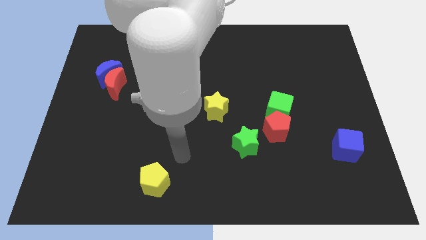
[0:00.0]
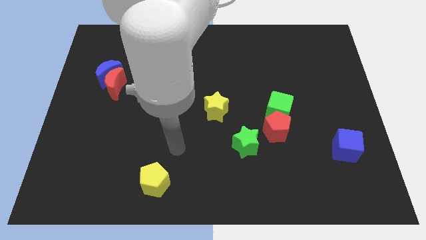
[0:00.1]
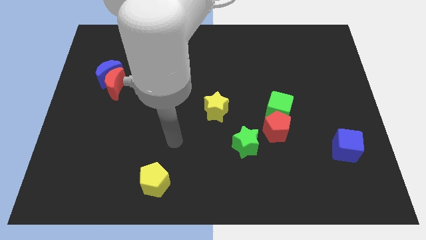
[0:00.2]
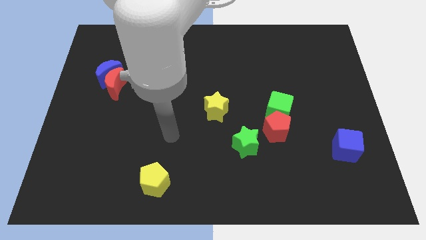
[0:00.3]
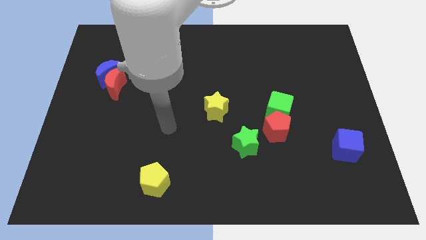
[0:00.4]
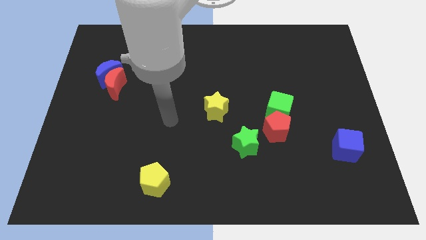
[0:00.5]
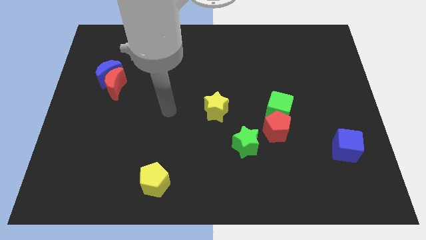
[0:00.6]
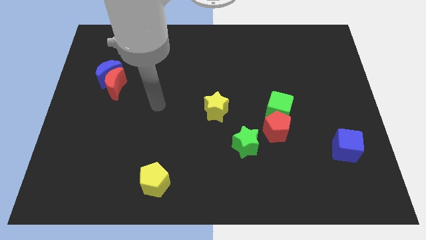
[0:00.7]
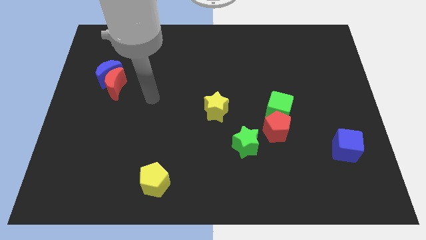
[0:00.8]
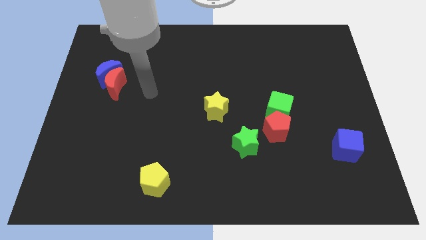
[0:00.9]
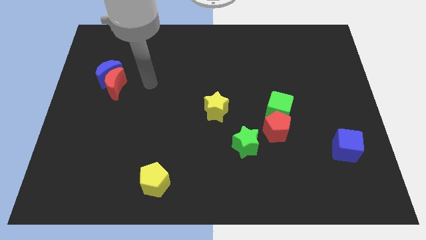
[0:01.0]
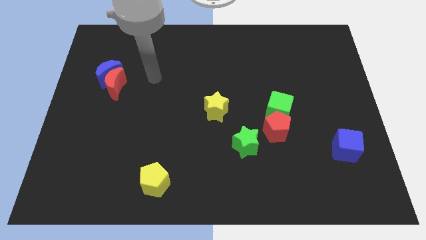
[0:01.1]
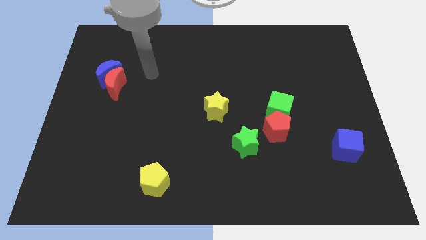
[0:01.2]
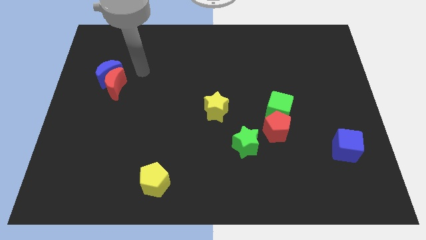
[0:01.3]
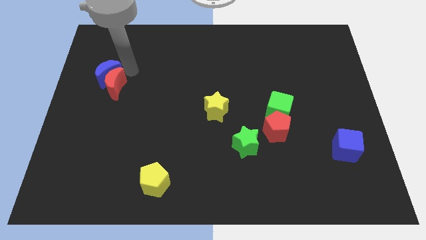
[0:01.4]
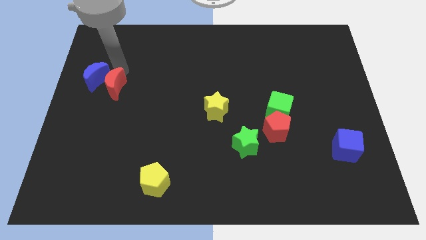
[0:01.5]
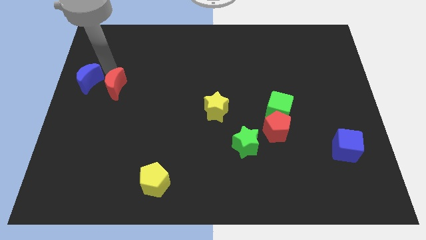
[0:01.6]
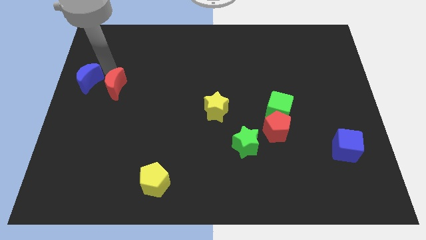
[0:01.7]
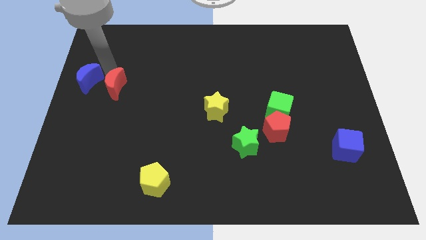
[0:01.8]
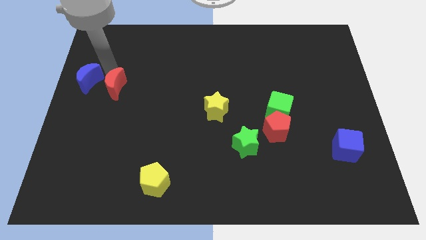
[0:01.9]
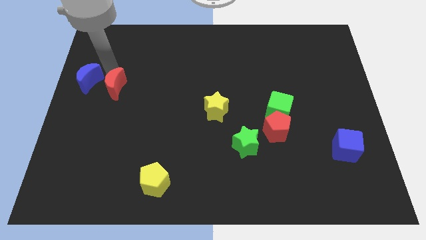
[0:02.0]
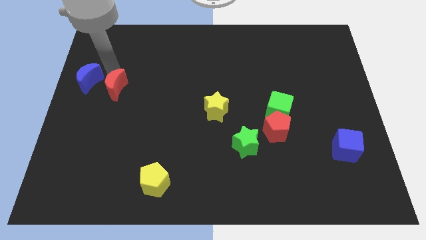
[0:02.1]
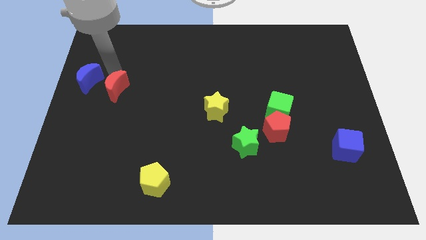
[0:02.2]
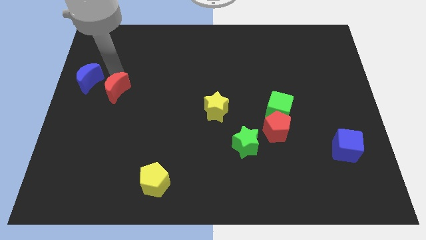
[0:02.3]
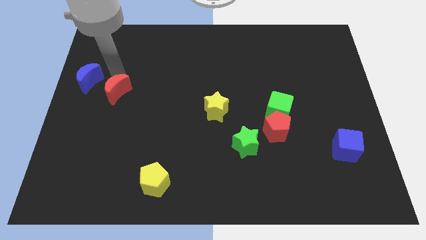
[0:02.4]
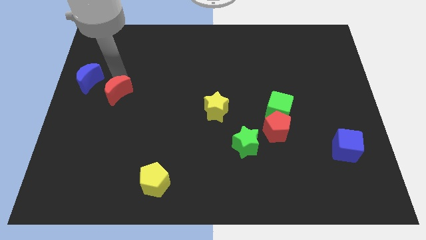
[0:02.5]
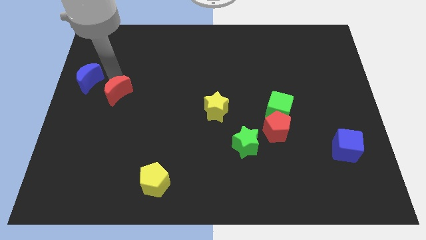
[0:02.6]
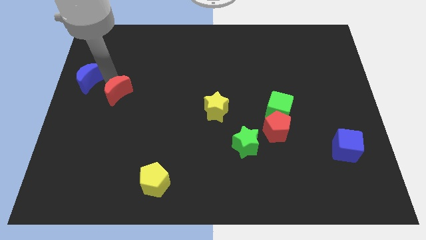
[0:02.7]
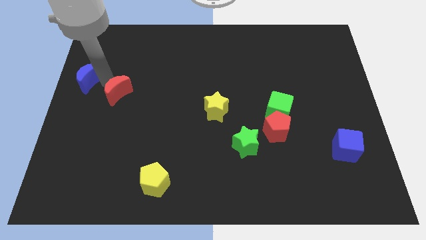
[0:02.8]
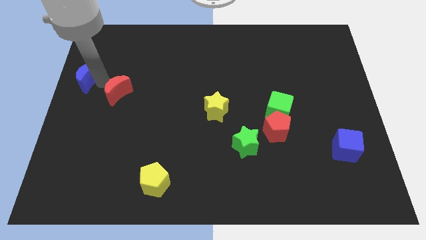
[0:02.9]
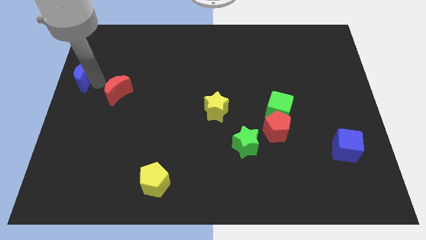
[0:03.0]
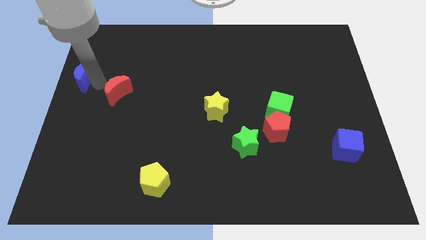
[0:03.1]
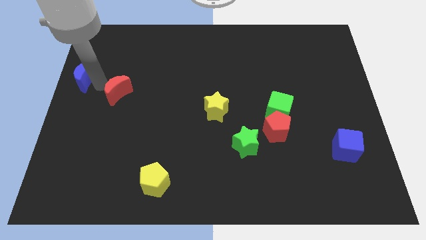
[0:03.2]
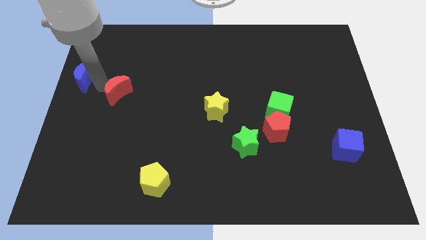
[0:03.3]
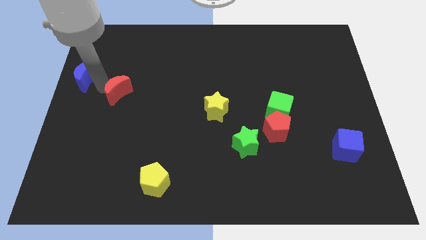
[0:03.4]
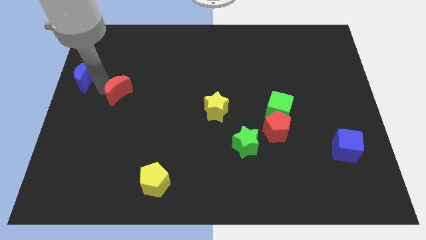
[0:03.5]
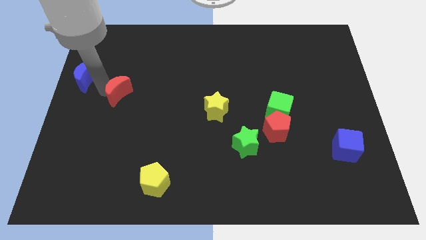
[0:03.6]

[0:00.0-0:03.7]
separate the red moon from the blue moon

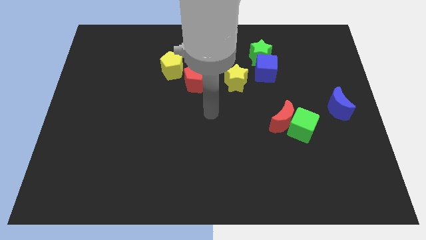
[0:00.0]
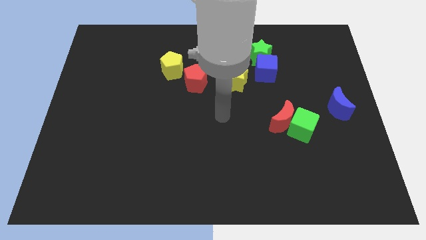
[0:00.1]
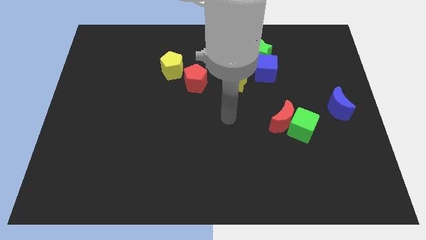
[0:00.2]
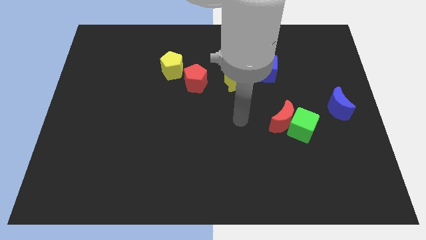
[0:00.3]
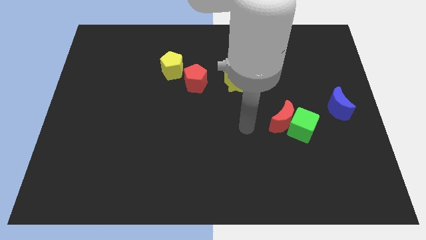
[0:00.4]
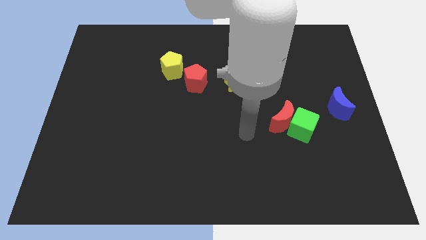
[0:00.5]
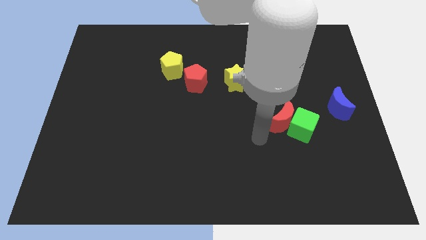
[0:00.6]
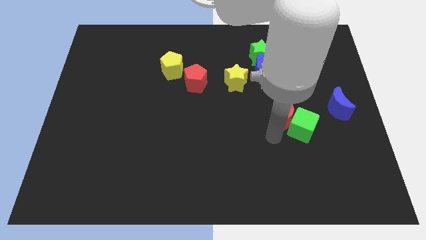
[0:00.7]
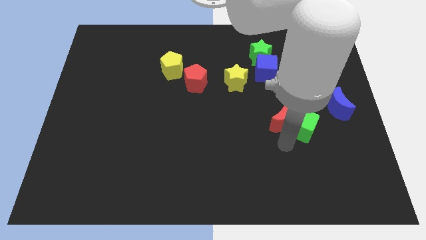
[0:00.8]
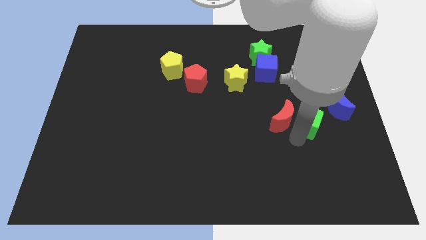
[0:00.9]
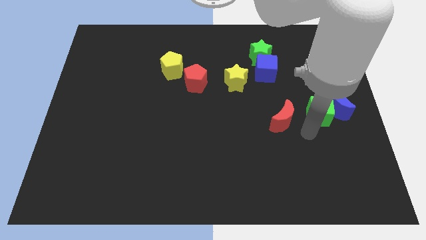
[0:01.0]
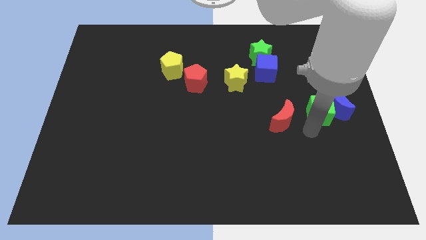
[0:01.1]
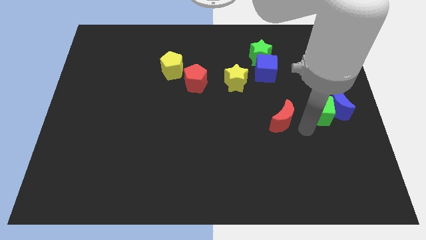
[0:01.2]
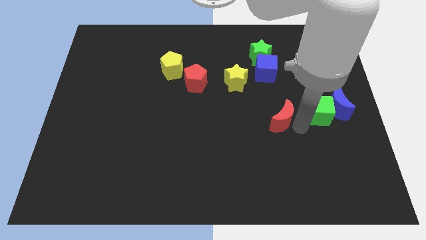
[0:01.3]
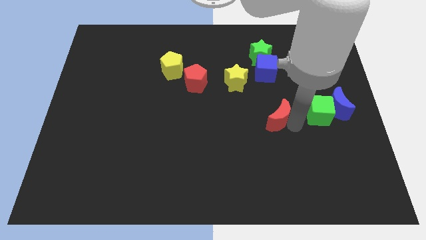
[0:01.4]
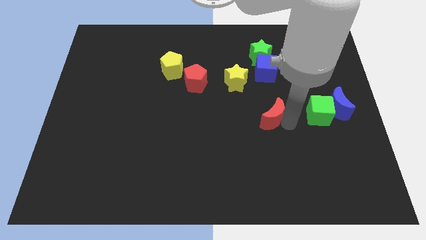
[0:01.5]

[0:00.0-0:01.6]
pull the red moon apart from the green cube

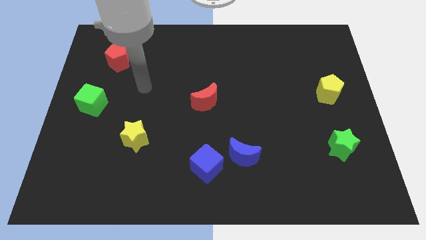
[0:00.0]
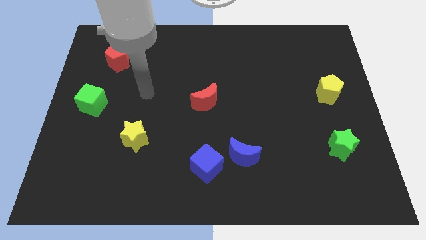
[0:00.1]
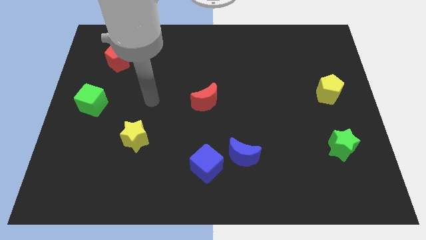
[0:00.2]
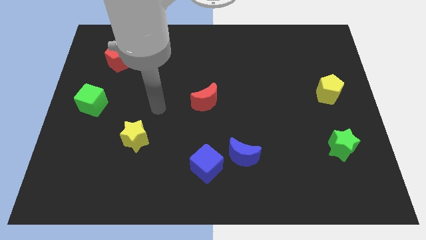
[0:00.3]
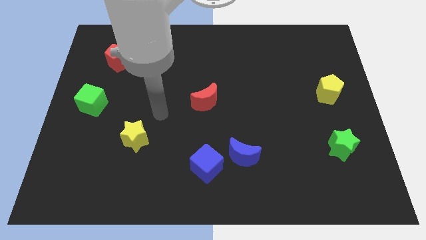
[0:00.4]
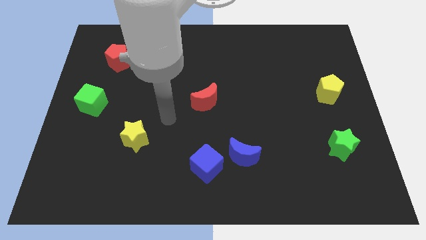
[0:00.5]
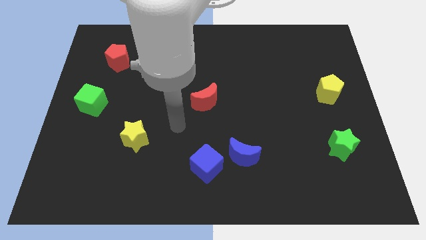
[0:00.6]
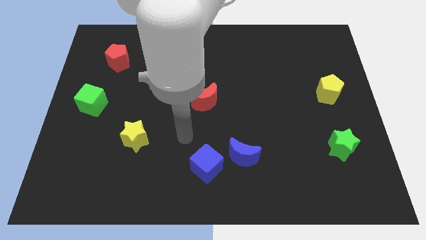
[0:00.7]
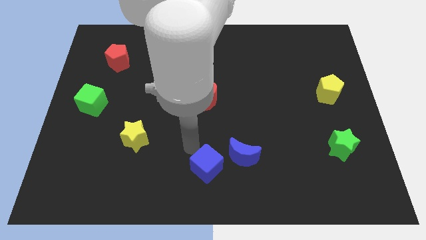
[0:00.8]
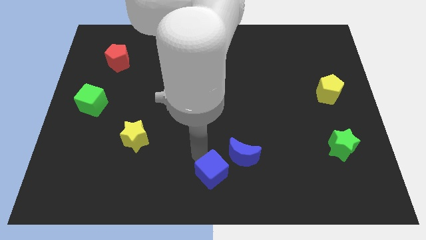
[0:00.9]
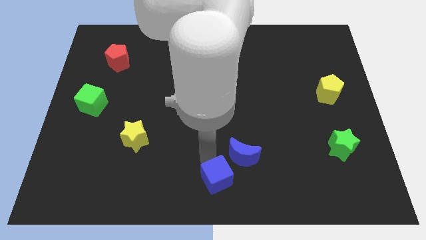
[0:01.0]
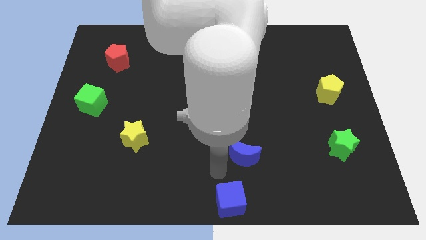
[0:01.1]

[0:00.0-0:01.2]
move the blue moon away from the blue cube

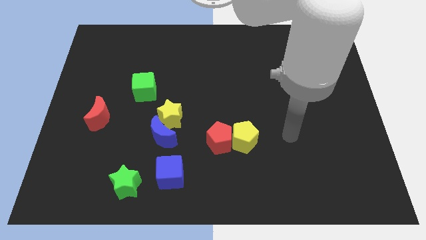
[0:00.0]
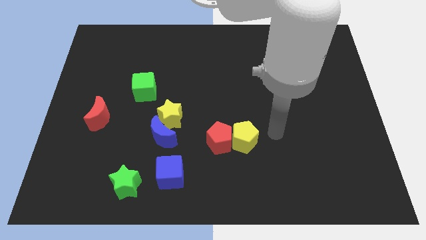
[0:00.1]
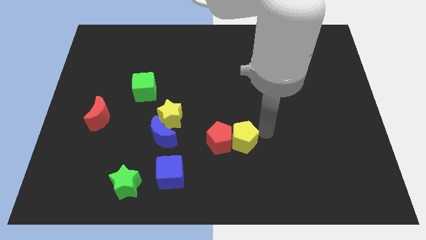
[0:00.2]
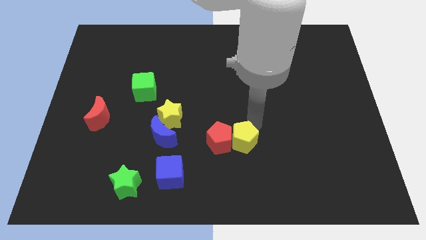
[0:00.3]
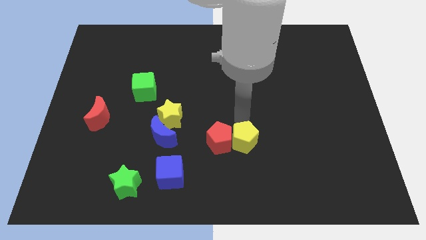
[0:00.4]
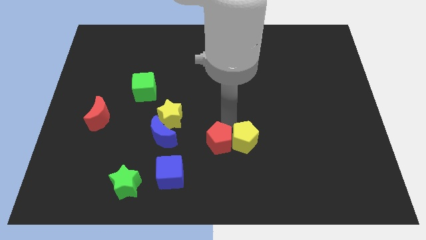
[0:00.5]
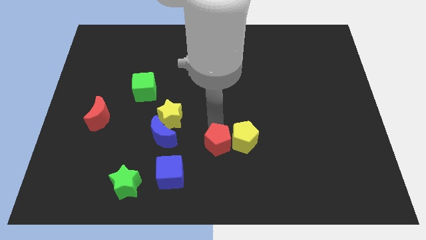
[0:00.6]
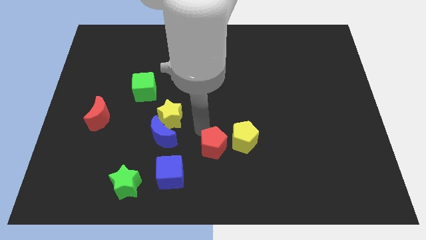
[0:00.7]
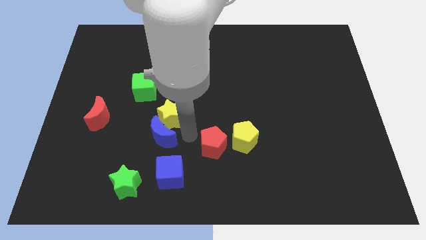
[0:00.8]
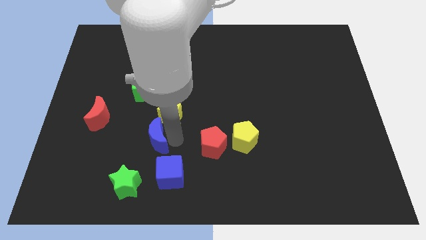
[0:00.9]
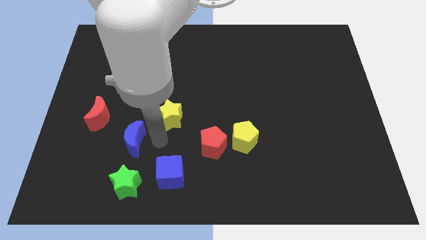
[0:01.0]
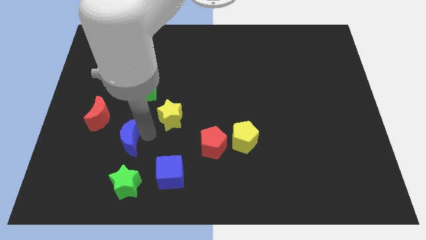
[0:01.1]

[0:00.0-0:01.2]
separate the yellow star from the blue moon

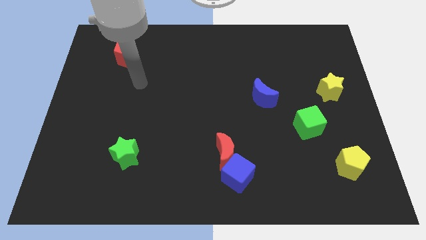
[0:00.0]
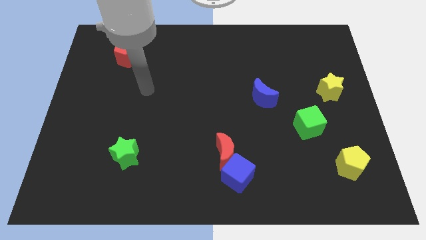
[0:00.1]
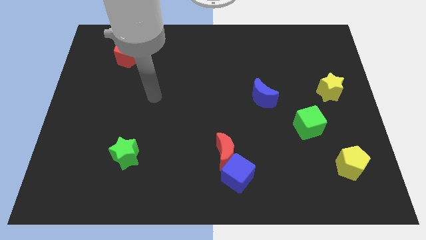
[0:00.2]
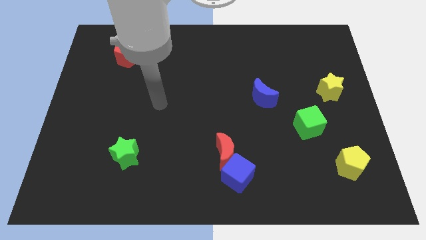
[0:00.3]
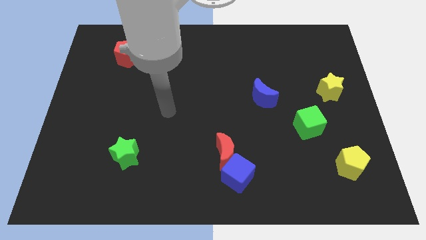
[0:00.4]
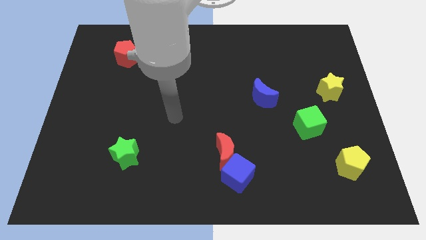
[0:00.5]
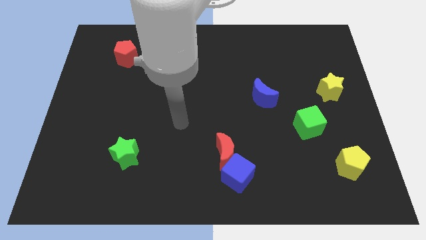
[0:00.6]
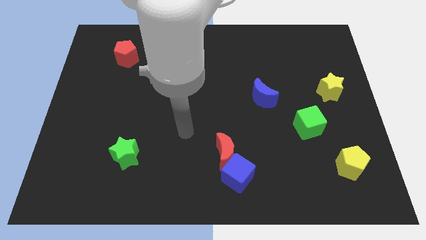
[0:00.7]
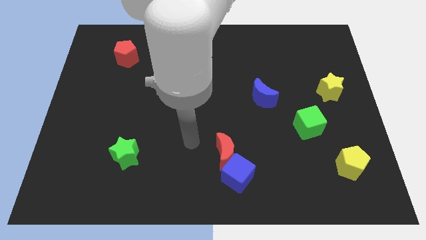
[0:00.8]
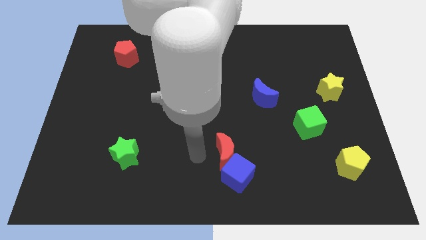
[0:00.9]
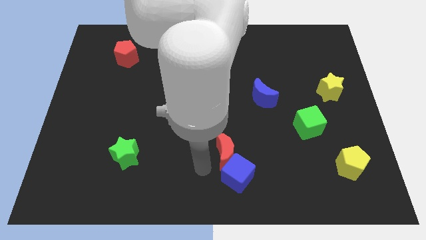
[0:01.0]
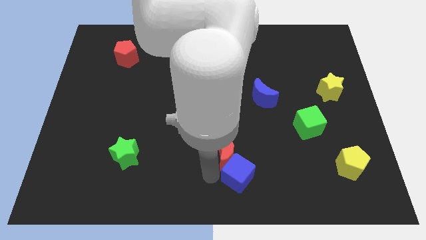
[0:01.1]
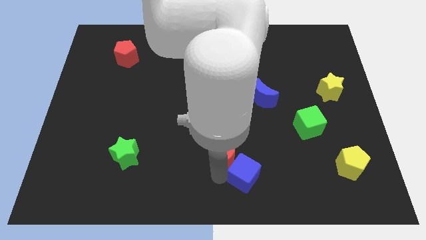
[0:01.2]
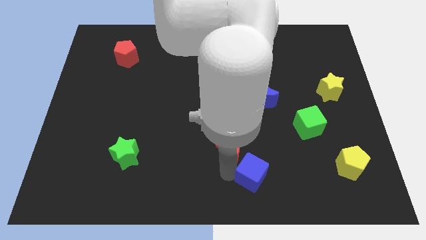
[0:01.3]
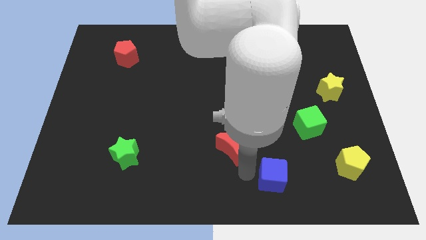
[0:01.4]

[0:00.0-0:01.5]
move the red moon away from the blue cube
